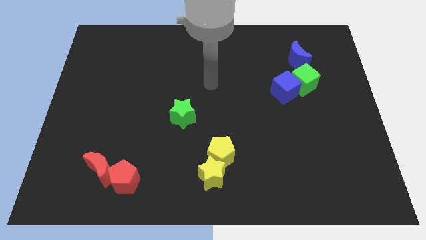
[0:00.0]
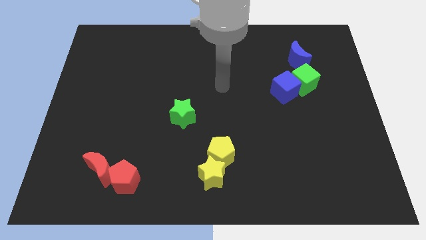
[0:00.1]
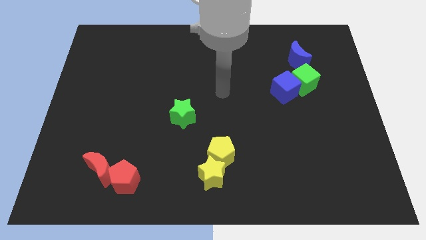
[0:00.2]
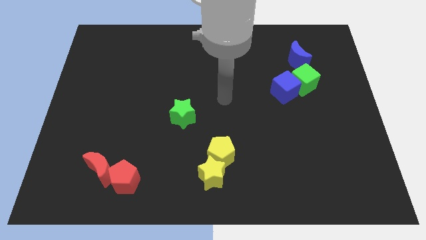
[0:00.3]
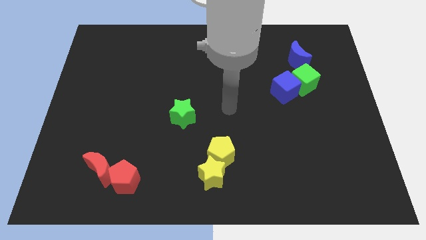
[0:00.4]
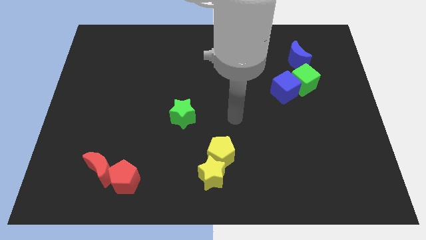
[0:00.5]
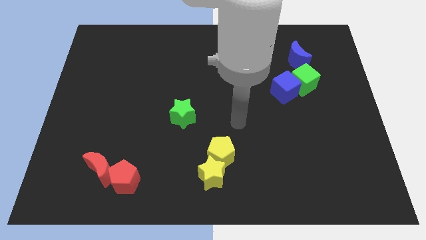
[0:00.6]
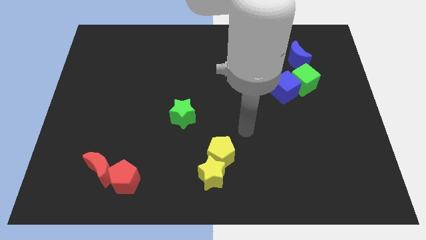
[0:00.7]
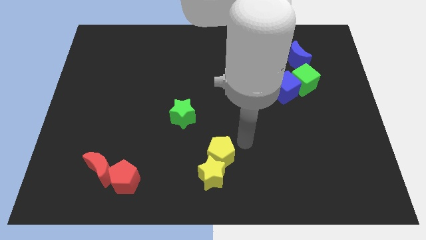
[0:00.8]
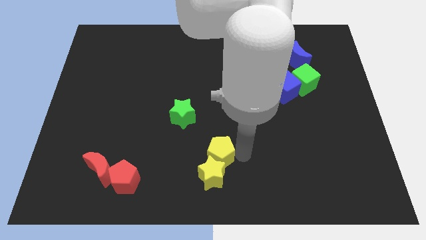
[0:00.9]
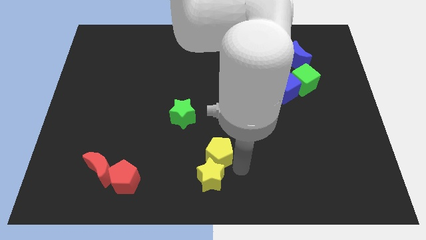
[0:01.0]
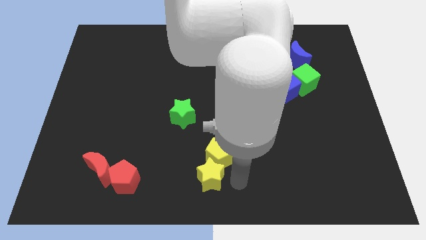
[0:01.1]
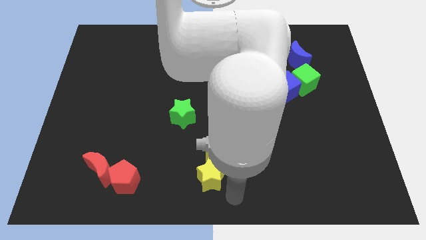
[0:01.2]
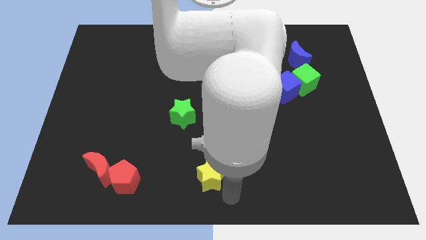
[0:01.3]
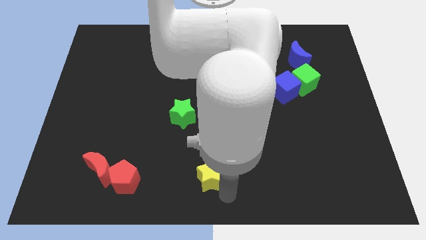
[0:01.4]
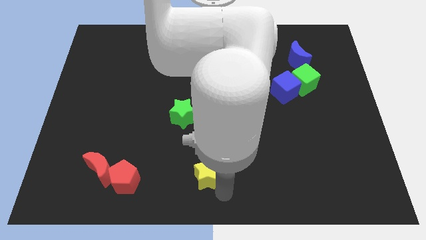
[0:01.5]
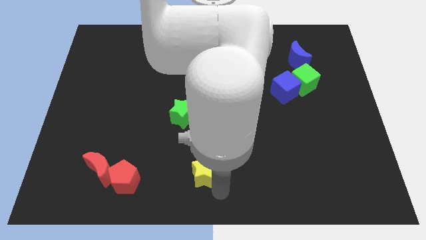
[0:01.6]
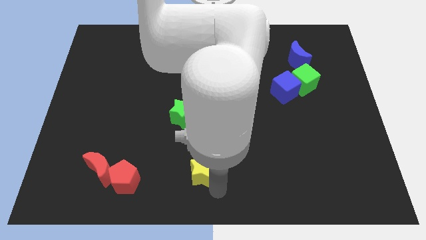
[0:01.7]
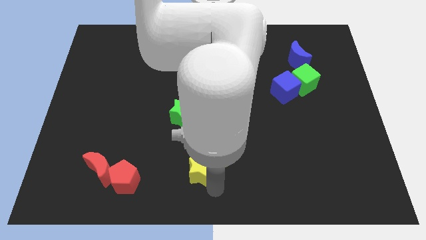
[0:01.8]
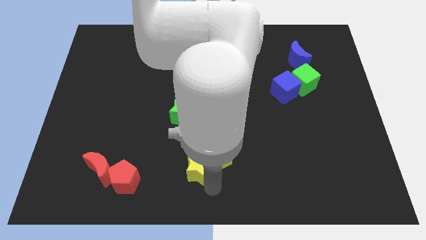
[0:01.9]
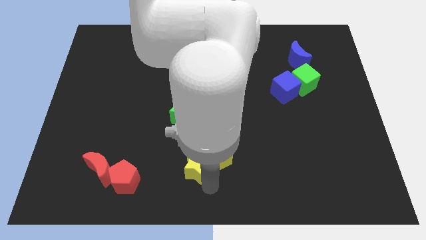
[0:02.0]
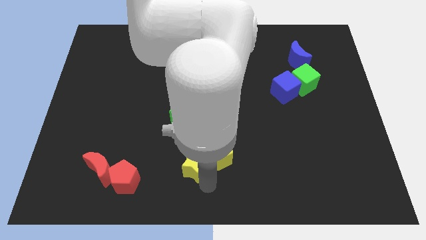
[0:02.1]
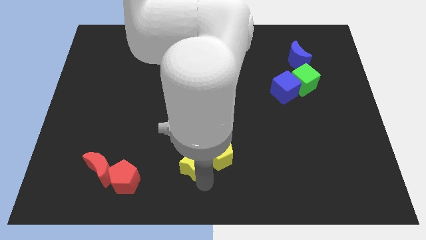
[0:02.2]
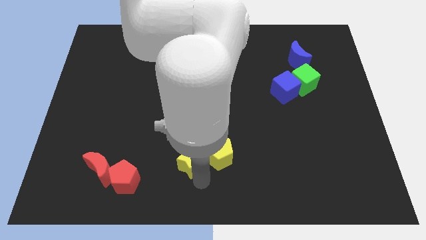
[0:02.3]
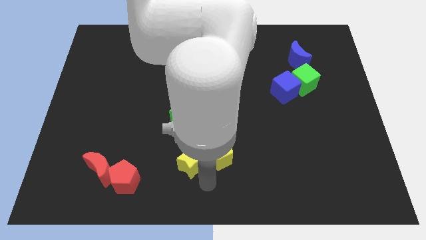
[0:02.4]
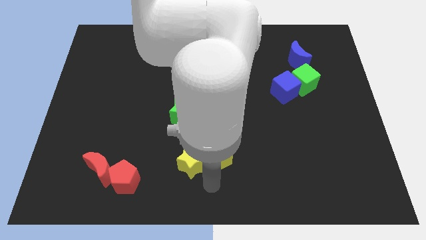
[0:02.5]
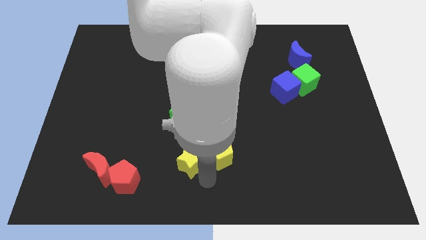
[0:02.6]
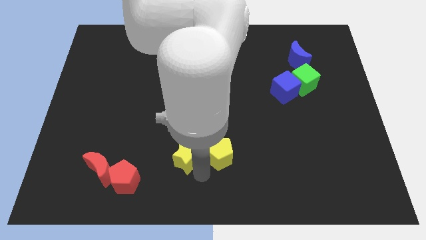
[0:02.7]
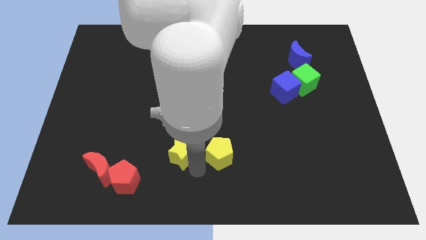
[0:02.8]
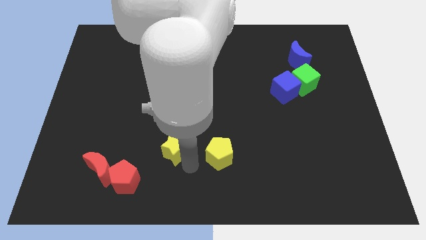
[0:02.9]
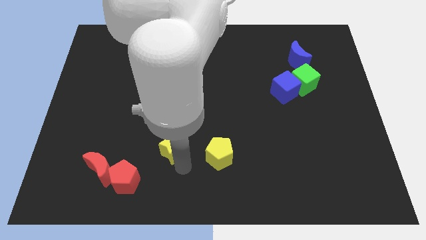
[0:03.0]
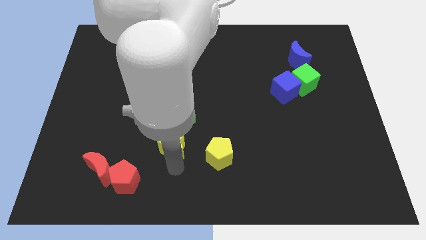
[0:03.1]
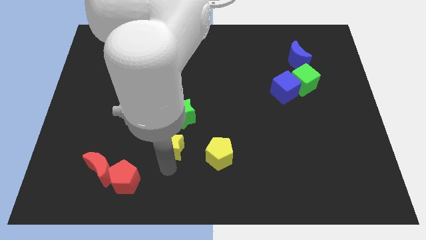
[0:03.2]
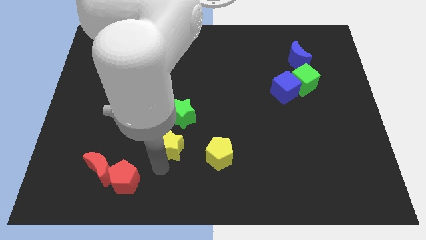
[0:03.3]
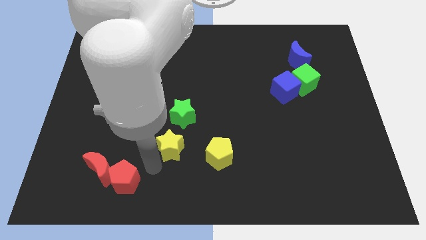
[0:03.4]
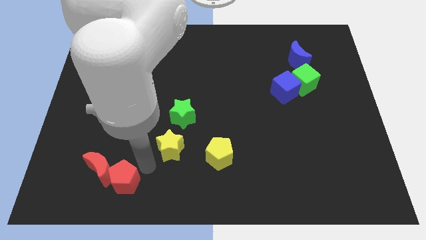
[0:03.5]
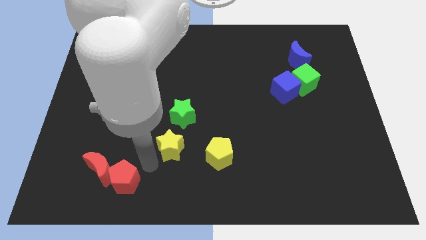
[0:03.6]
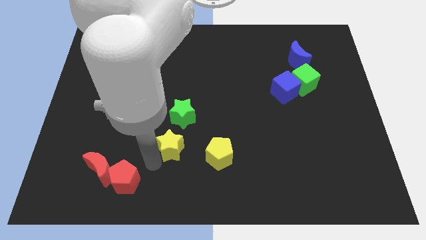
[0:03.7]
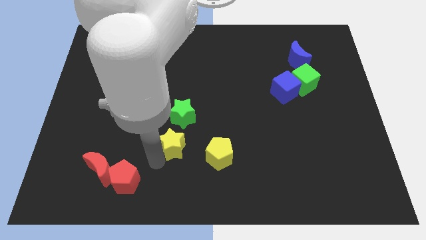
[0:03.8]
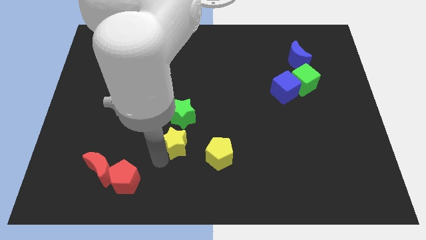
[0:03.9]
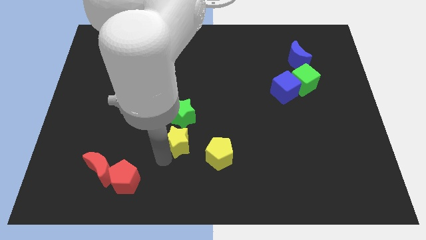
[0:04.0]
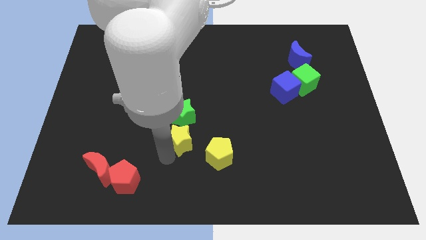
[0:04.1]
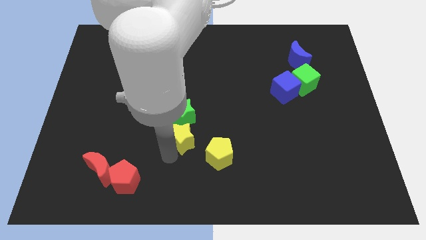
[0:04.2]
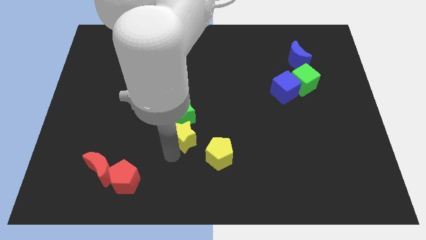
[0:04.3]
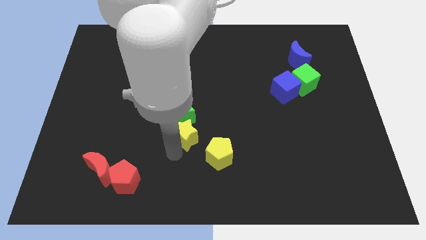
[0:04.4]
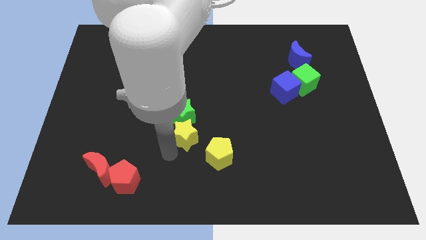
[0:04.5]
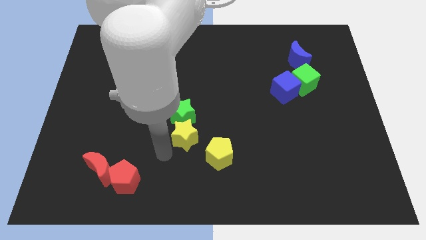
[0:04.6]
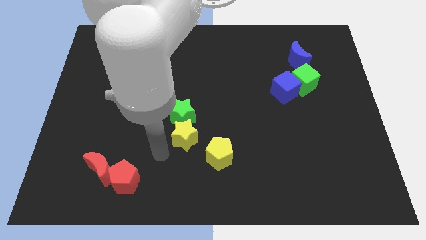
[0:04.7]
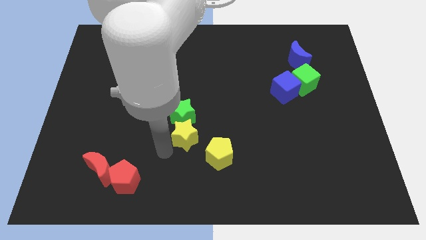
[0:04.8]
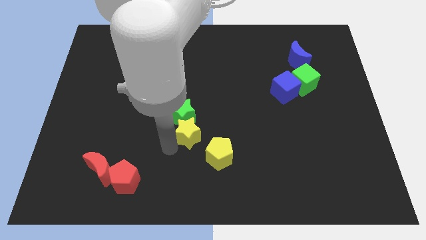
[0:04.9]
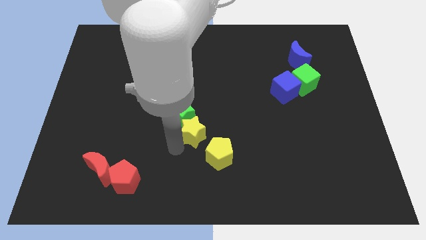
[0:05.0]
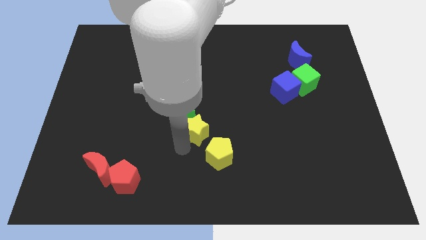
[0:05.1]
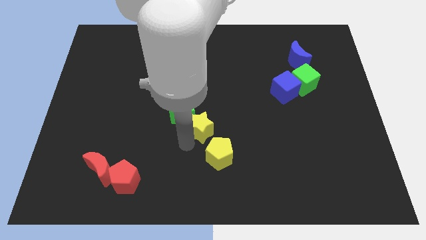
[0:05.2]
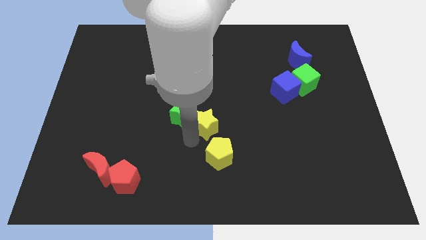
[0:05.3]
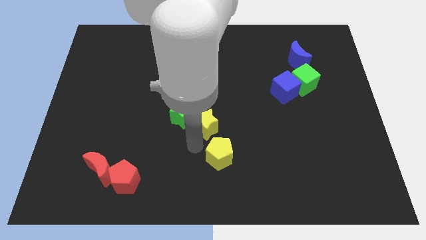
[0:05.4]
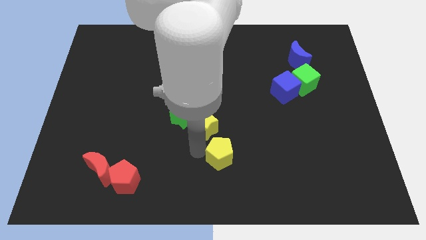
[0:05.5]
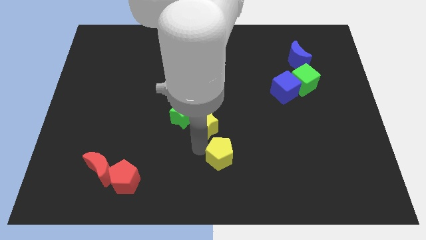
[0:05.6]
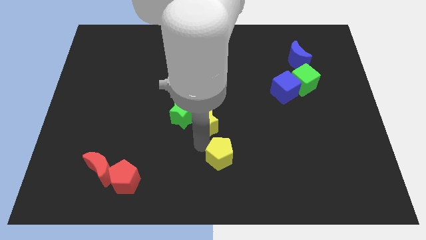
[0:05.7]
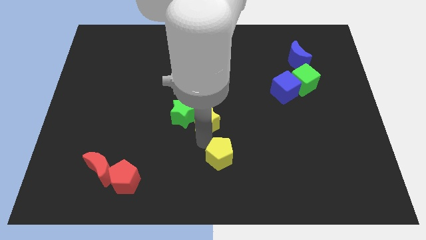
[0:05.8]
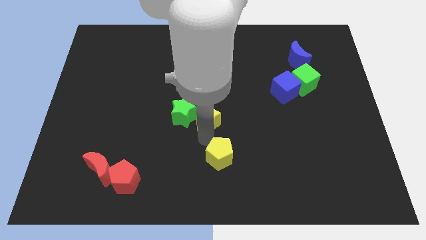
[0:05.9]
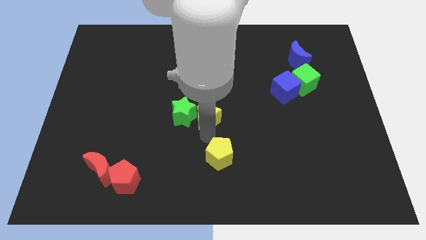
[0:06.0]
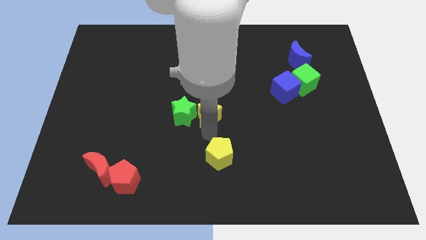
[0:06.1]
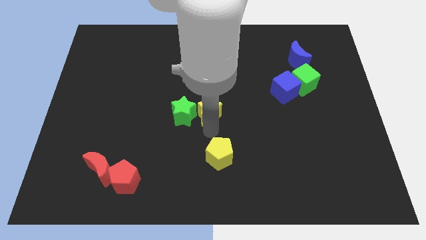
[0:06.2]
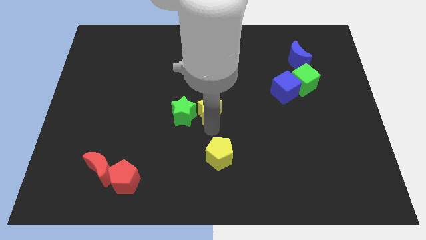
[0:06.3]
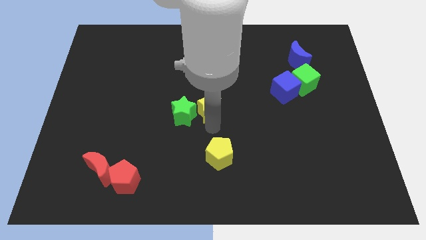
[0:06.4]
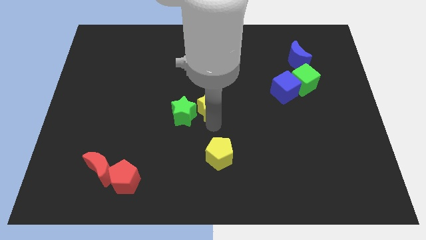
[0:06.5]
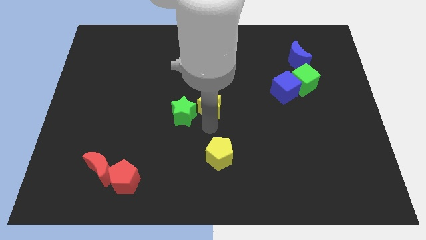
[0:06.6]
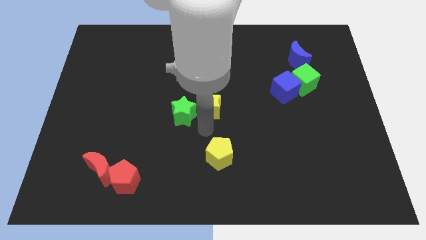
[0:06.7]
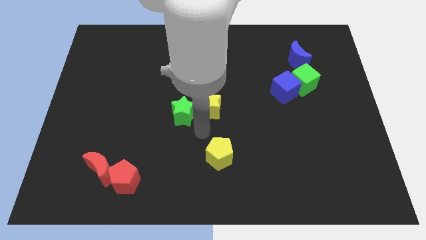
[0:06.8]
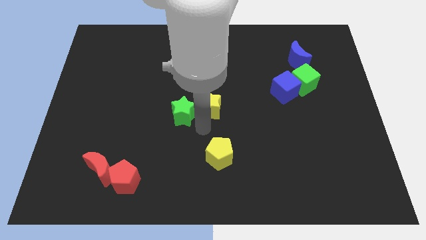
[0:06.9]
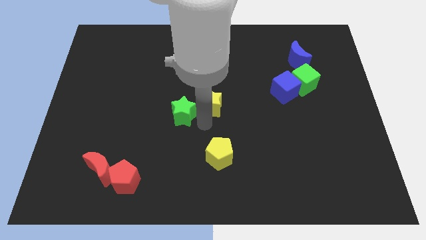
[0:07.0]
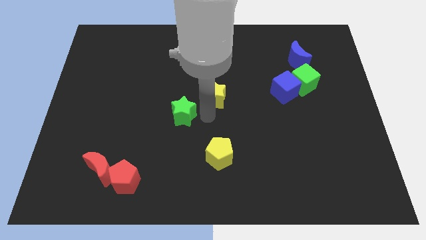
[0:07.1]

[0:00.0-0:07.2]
push the yellow star up

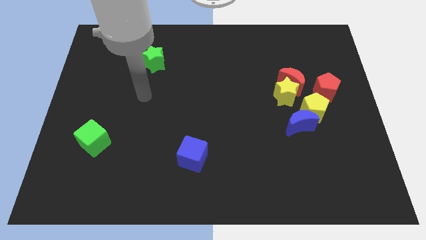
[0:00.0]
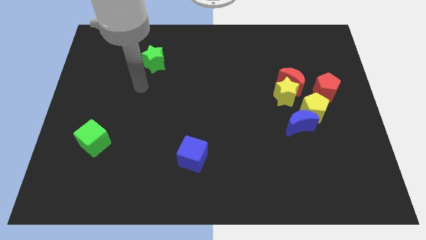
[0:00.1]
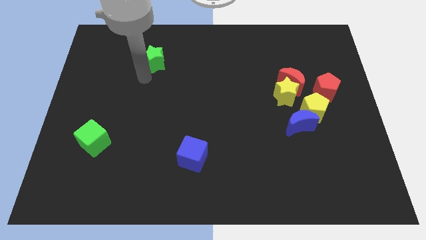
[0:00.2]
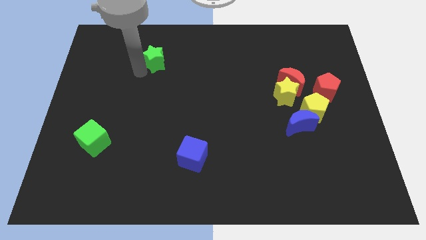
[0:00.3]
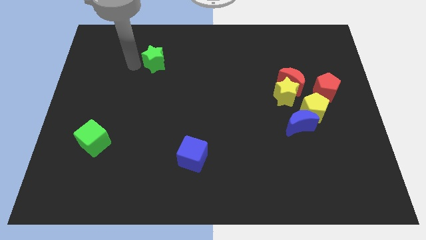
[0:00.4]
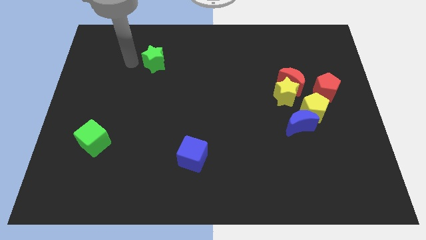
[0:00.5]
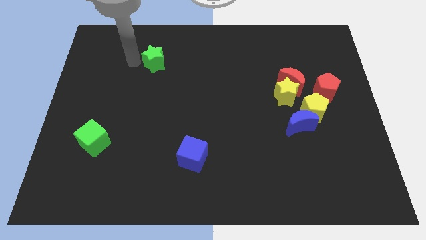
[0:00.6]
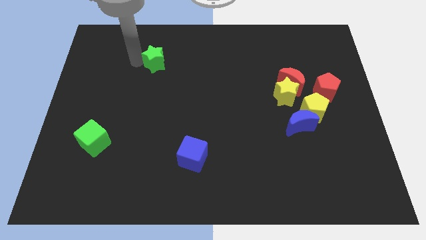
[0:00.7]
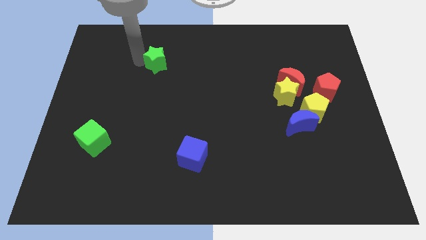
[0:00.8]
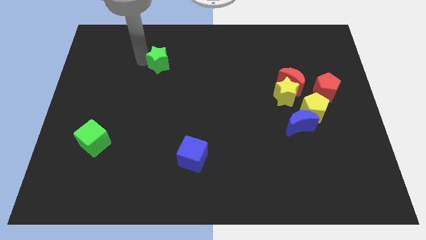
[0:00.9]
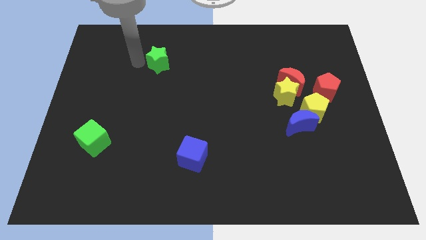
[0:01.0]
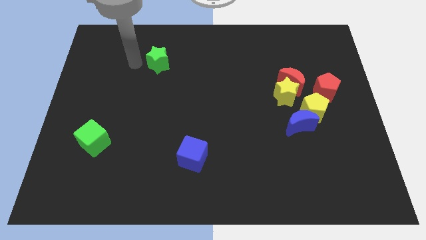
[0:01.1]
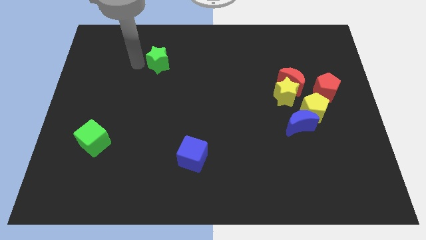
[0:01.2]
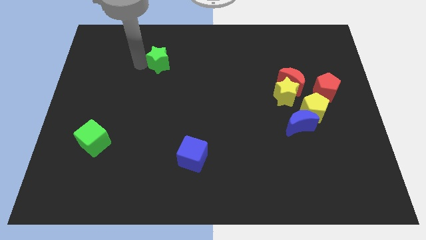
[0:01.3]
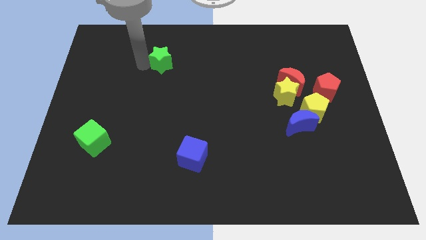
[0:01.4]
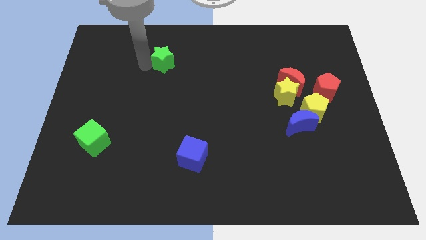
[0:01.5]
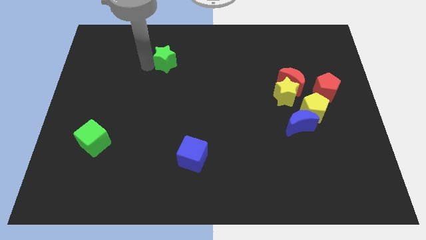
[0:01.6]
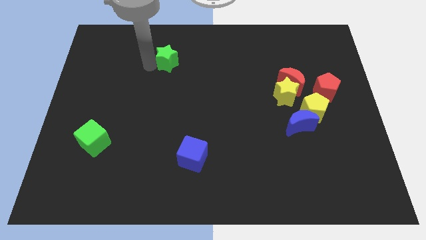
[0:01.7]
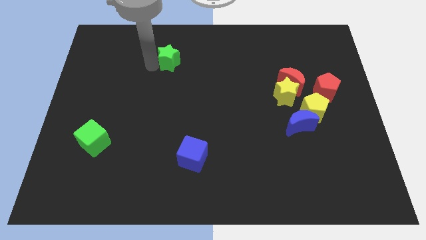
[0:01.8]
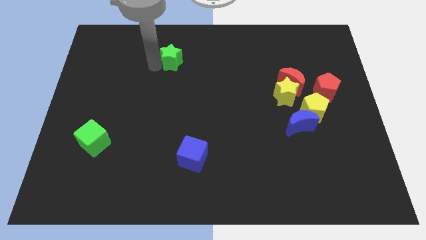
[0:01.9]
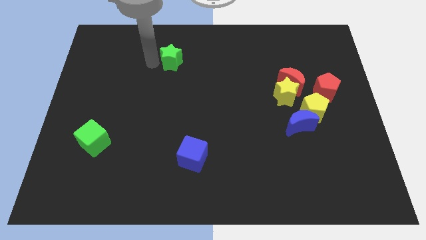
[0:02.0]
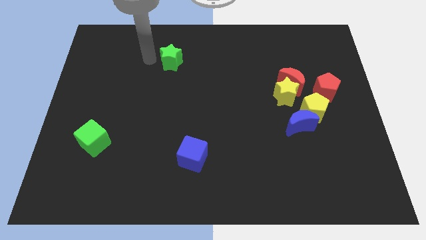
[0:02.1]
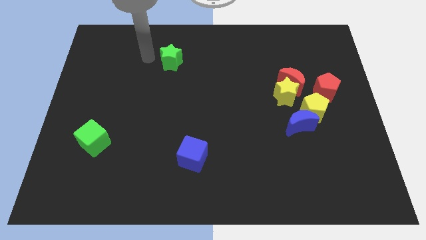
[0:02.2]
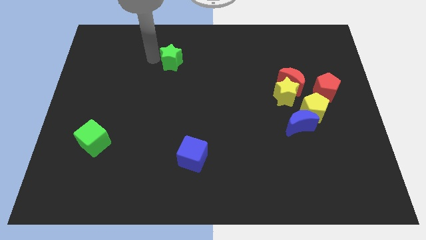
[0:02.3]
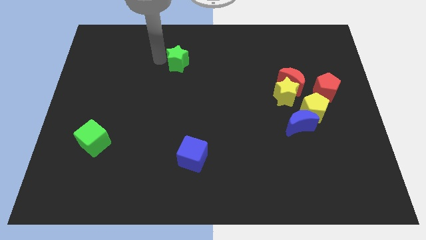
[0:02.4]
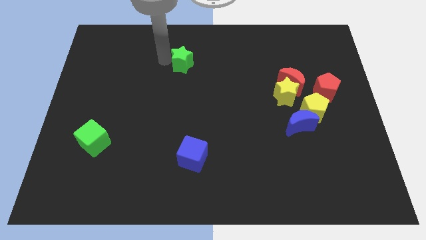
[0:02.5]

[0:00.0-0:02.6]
slide the green star to the right slightly
